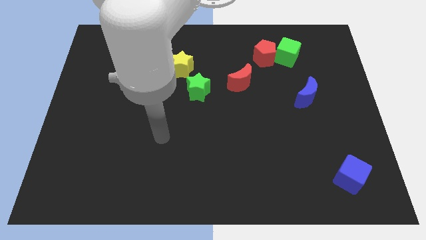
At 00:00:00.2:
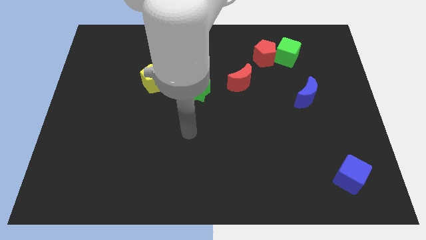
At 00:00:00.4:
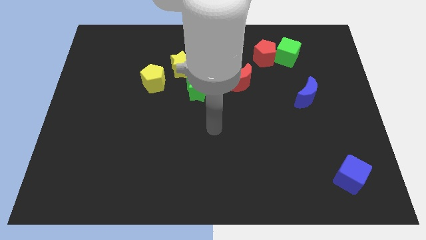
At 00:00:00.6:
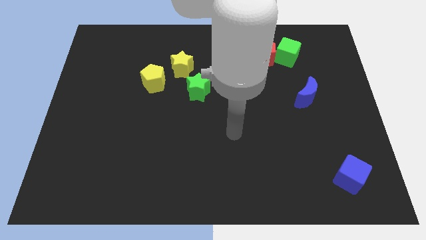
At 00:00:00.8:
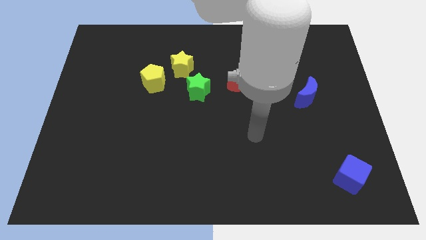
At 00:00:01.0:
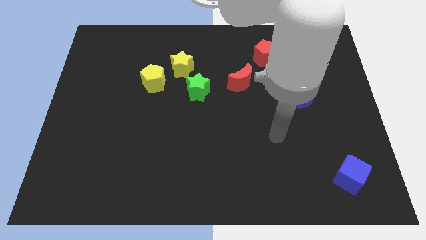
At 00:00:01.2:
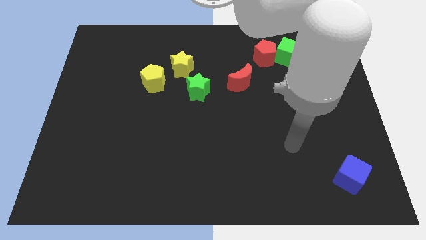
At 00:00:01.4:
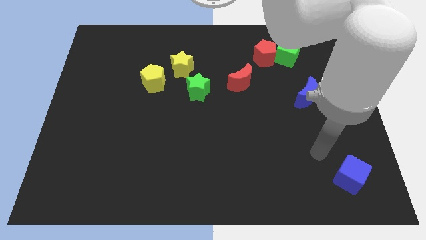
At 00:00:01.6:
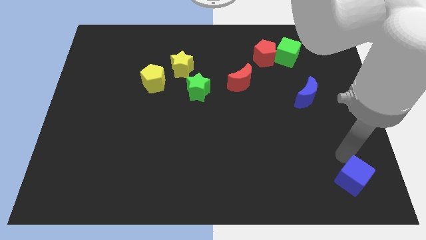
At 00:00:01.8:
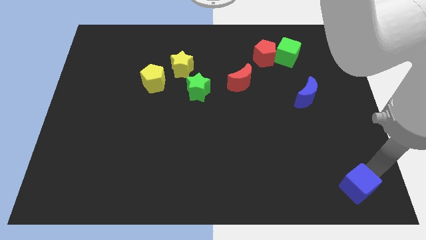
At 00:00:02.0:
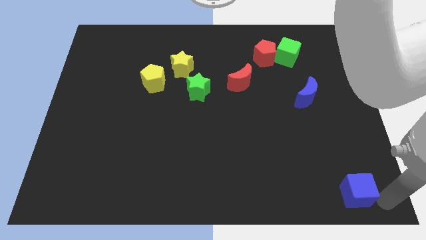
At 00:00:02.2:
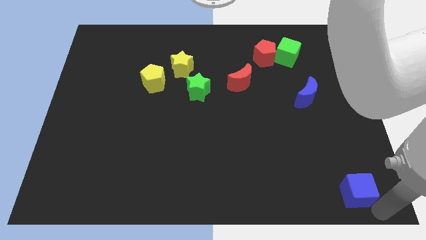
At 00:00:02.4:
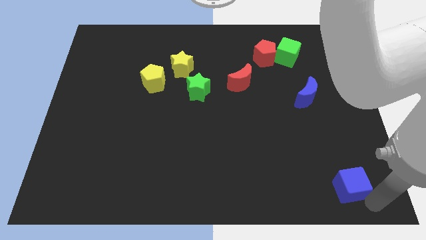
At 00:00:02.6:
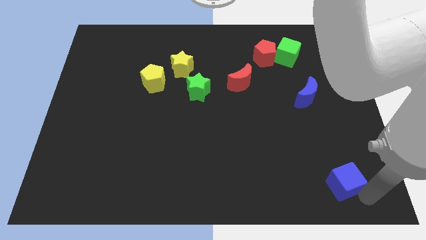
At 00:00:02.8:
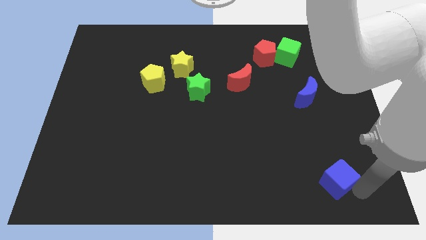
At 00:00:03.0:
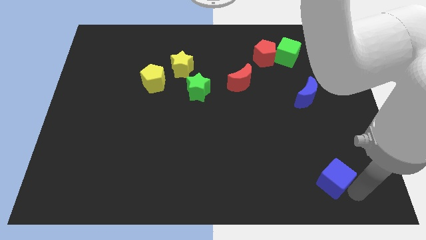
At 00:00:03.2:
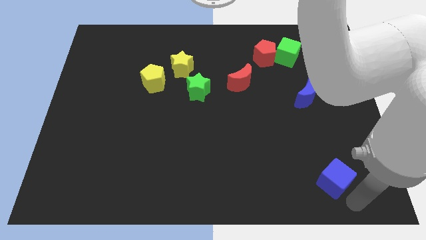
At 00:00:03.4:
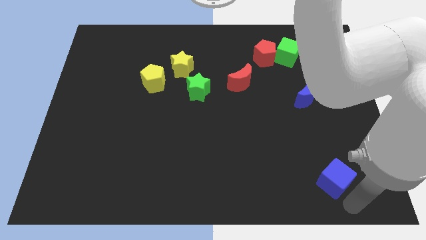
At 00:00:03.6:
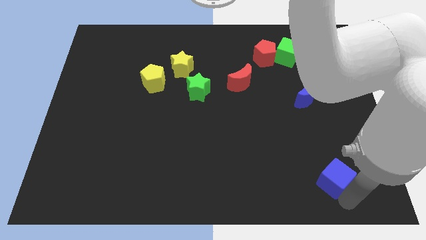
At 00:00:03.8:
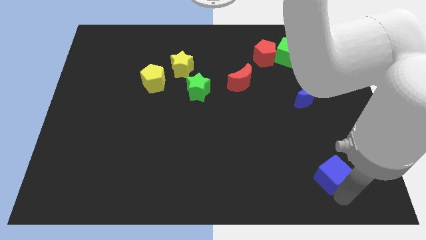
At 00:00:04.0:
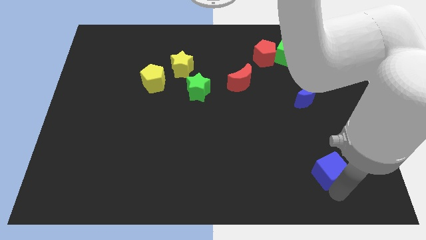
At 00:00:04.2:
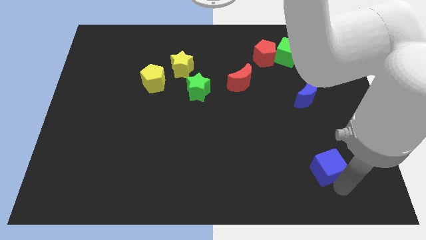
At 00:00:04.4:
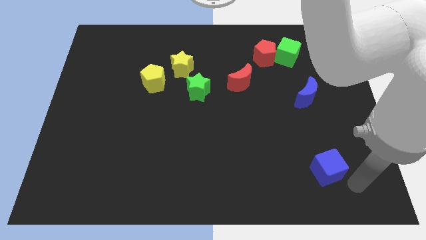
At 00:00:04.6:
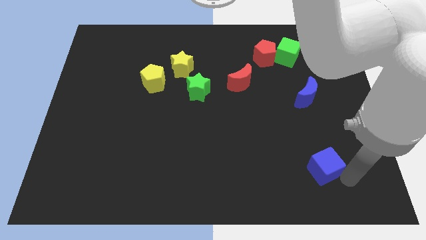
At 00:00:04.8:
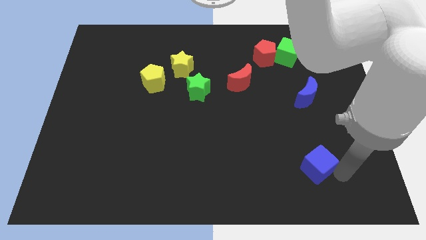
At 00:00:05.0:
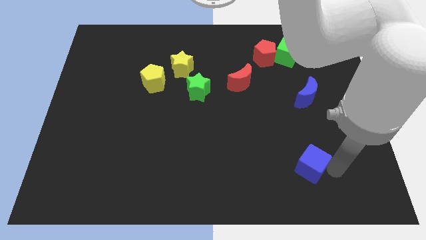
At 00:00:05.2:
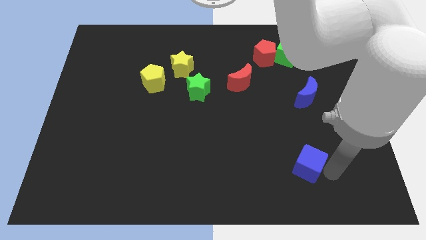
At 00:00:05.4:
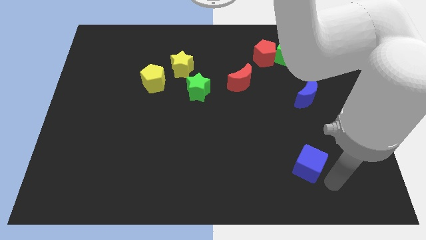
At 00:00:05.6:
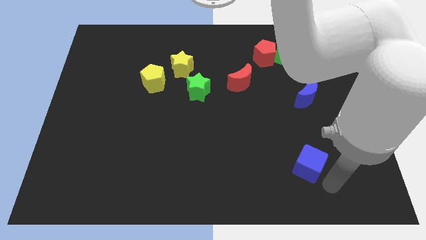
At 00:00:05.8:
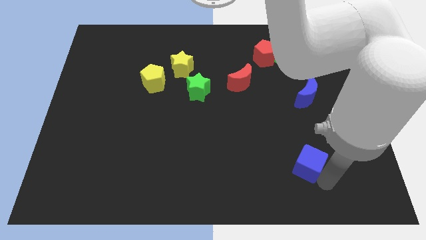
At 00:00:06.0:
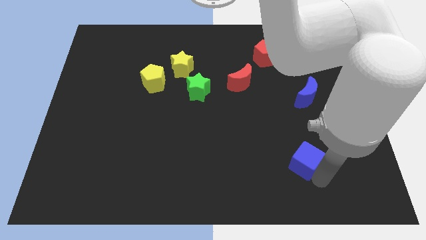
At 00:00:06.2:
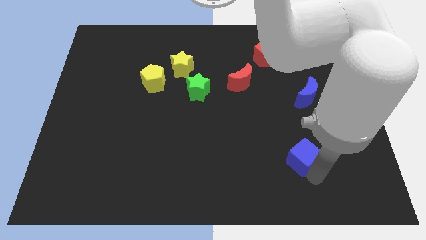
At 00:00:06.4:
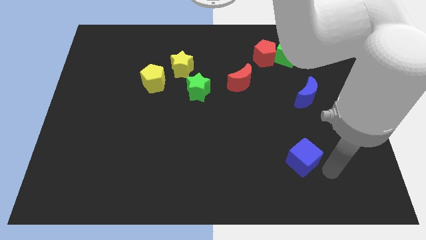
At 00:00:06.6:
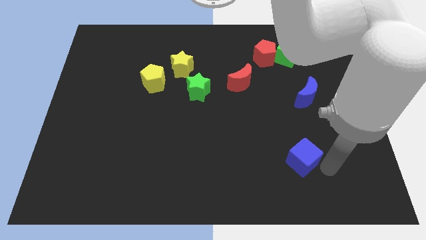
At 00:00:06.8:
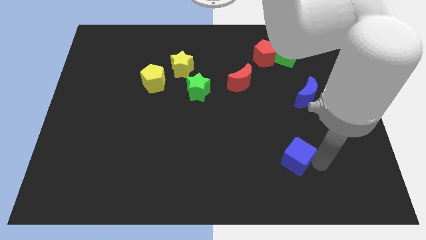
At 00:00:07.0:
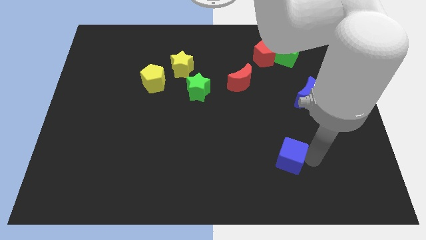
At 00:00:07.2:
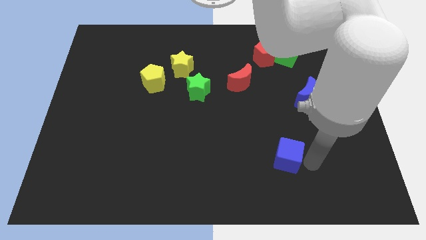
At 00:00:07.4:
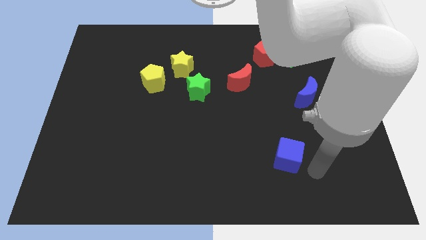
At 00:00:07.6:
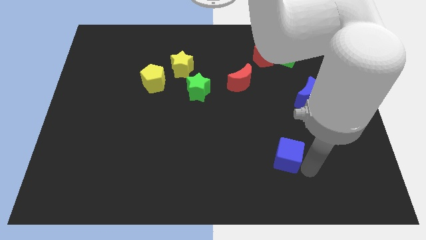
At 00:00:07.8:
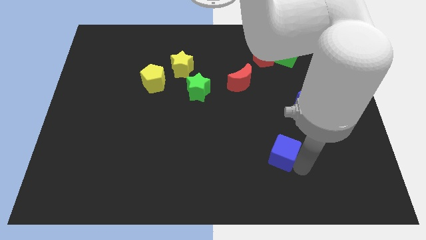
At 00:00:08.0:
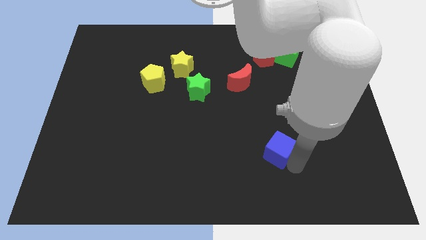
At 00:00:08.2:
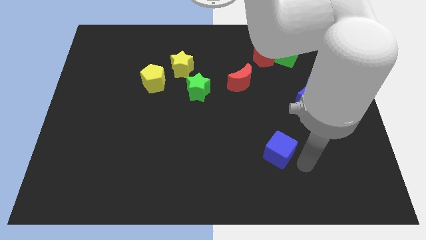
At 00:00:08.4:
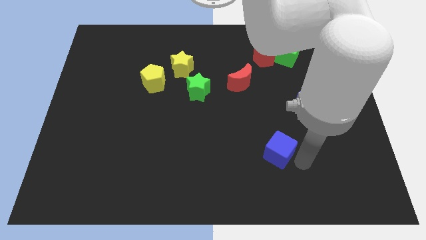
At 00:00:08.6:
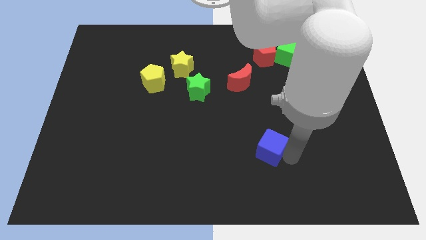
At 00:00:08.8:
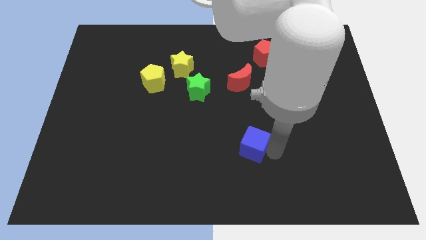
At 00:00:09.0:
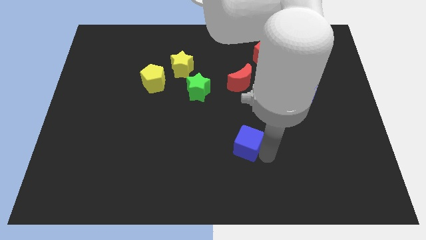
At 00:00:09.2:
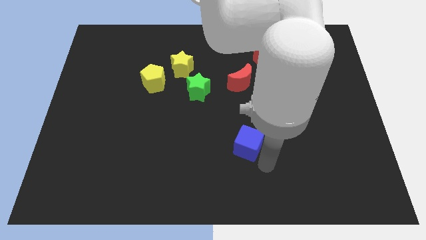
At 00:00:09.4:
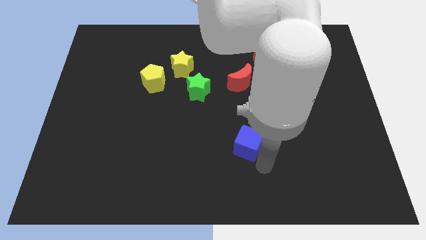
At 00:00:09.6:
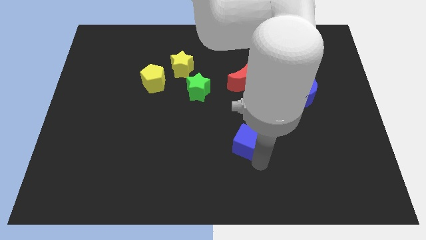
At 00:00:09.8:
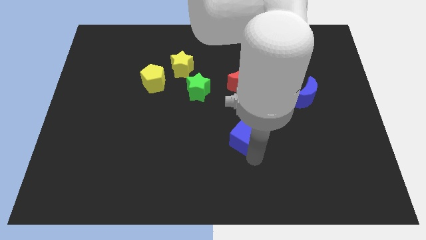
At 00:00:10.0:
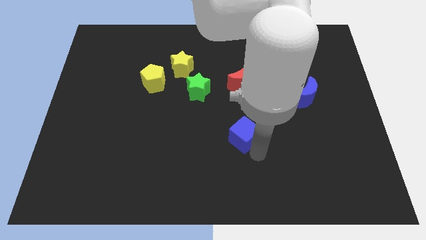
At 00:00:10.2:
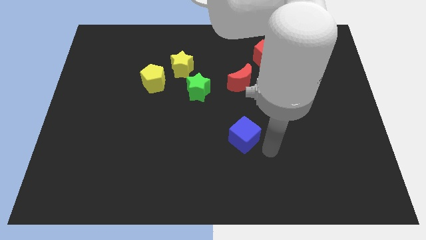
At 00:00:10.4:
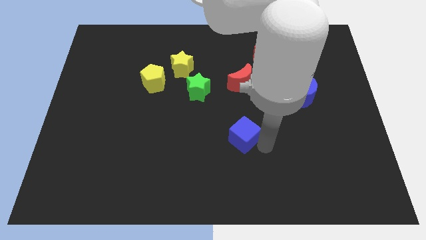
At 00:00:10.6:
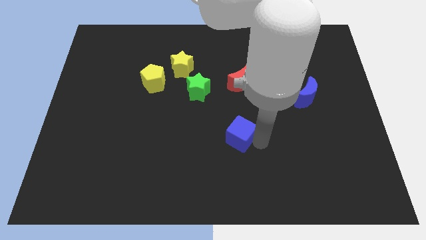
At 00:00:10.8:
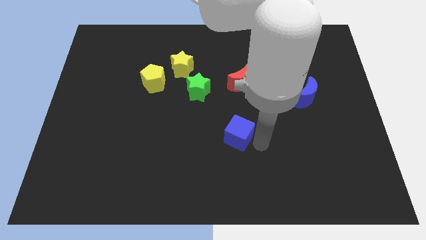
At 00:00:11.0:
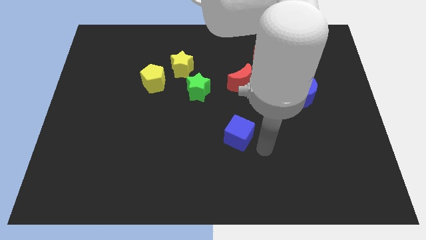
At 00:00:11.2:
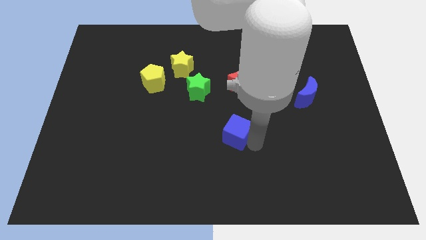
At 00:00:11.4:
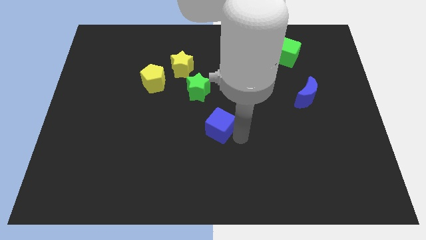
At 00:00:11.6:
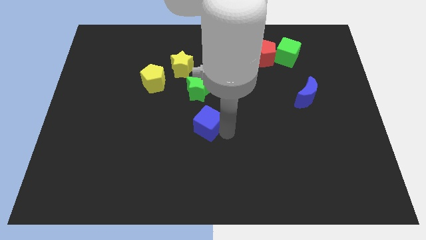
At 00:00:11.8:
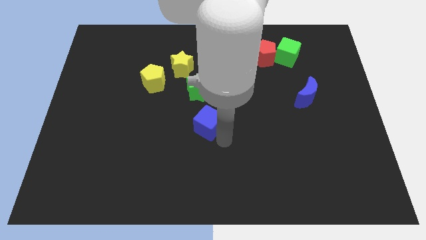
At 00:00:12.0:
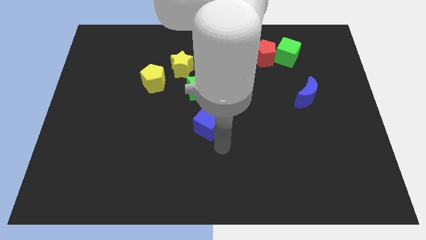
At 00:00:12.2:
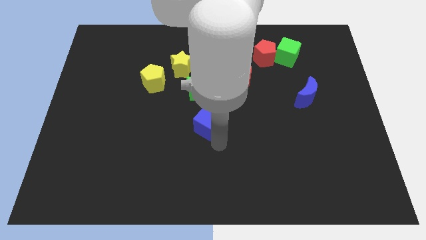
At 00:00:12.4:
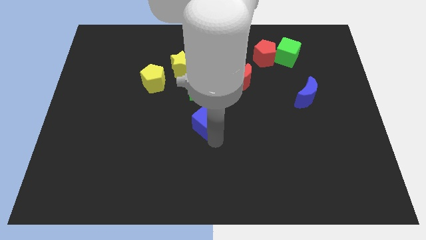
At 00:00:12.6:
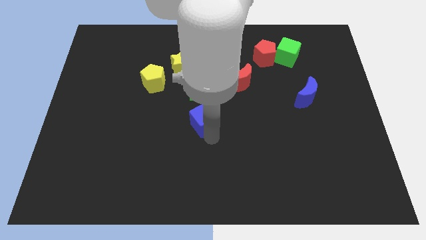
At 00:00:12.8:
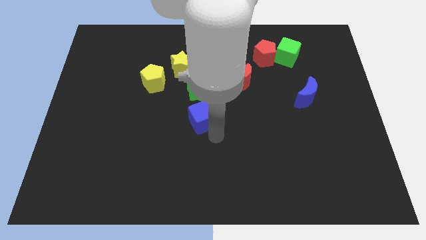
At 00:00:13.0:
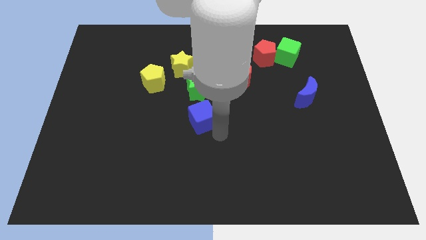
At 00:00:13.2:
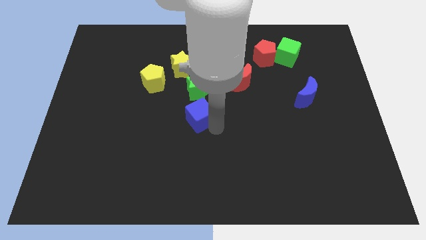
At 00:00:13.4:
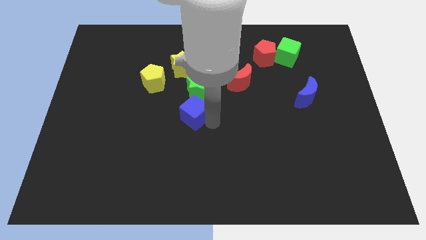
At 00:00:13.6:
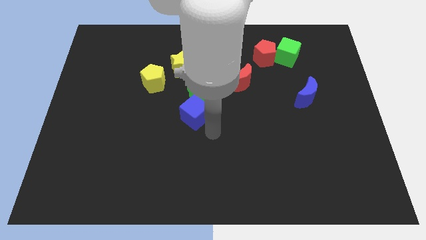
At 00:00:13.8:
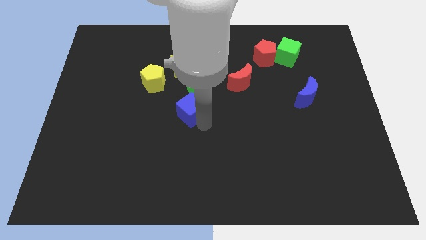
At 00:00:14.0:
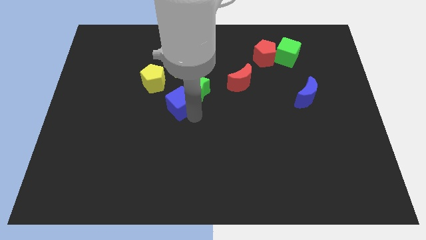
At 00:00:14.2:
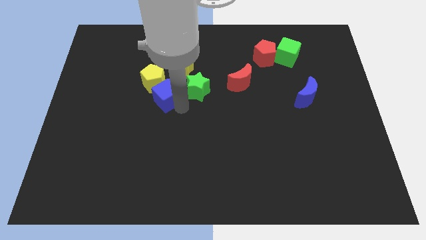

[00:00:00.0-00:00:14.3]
slide the blue cube towards the yellow pentagon

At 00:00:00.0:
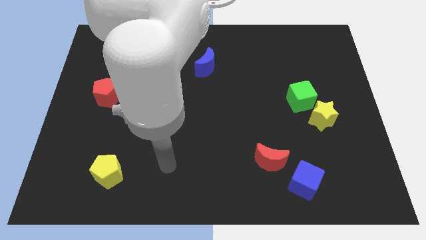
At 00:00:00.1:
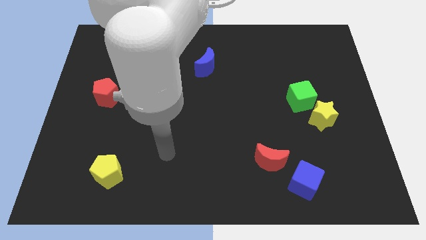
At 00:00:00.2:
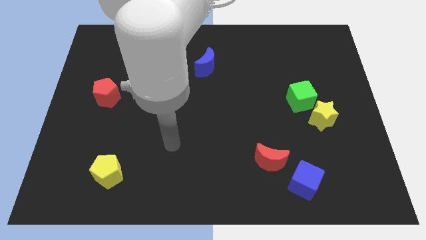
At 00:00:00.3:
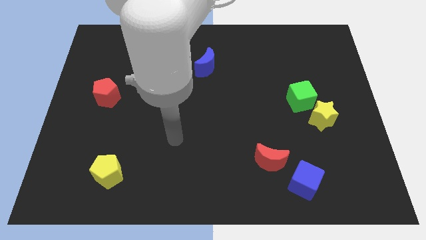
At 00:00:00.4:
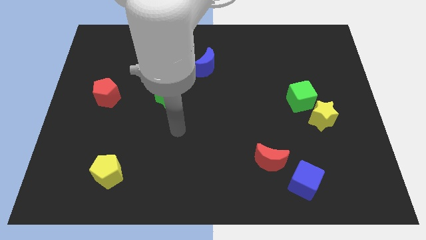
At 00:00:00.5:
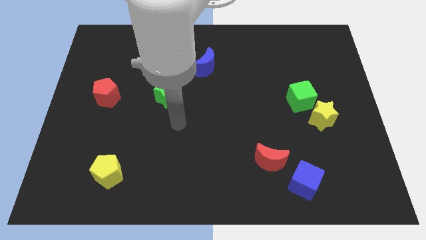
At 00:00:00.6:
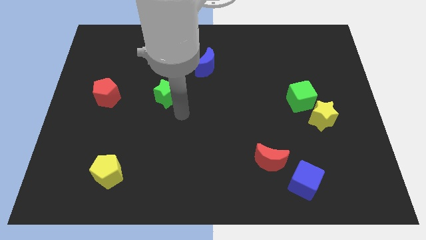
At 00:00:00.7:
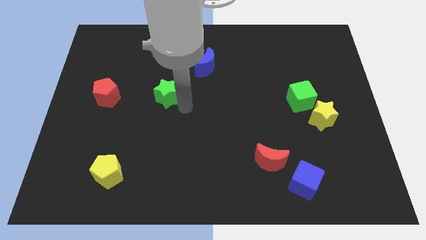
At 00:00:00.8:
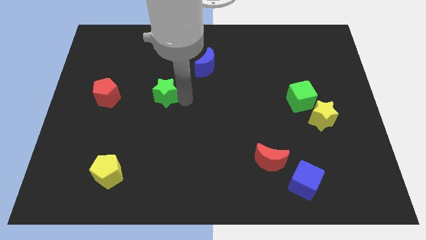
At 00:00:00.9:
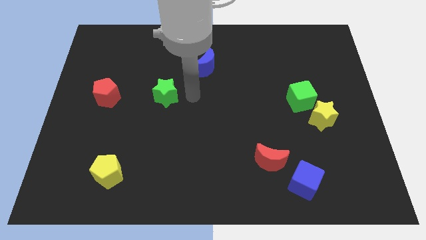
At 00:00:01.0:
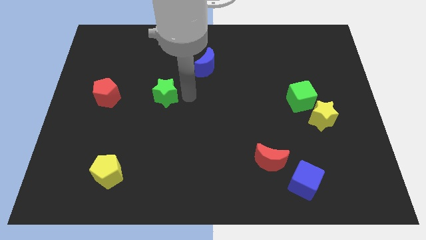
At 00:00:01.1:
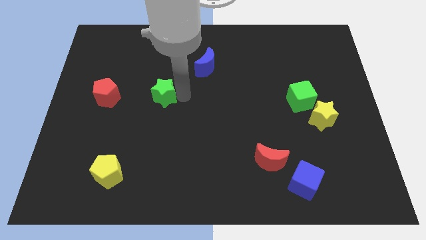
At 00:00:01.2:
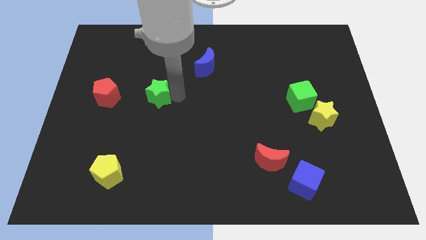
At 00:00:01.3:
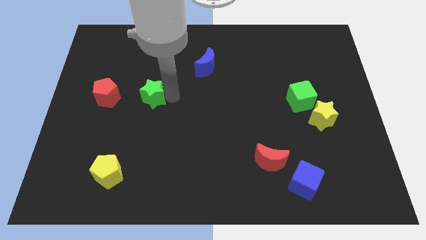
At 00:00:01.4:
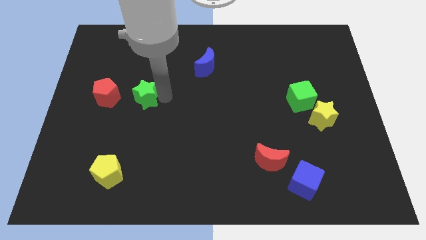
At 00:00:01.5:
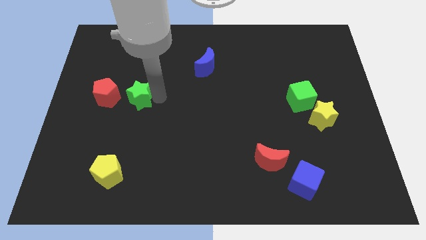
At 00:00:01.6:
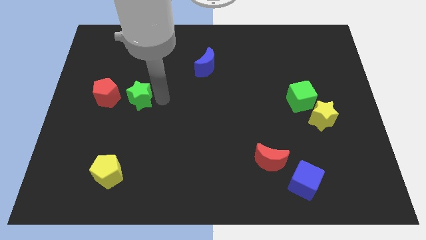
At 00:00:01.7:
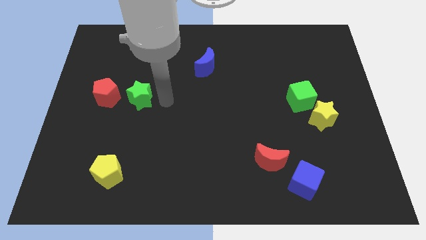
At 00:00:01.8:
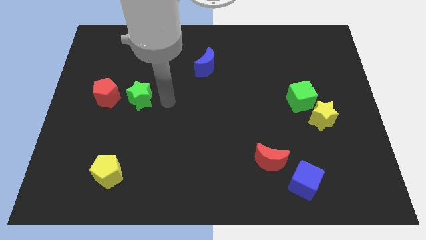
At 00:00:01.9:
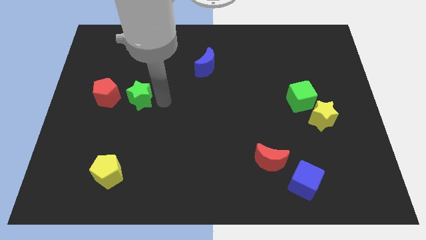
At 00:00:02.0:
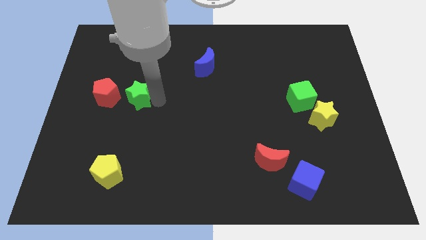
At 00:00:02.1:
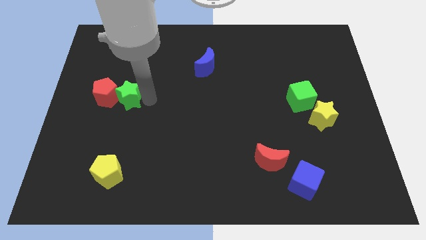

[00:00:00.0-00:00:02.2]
move the green star close to the red pentagon
